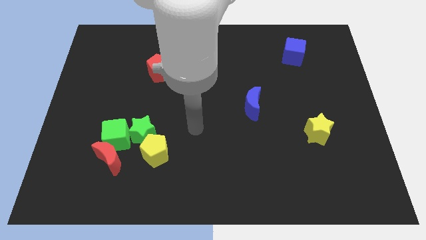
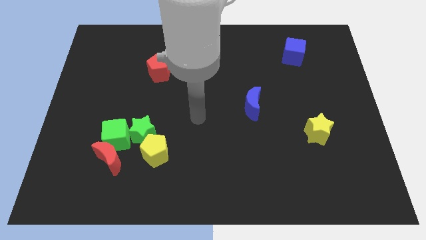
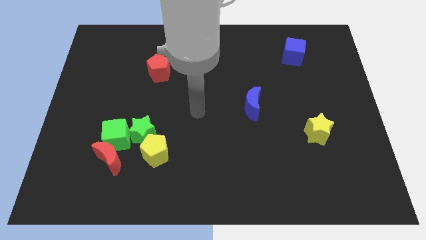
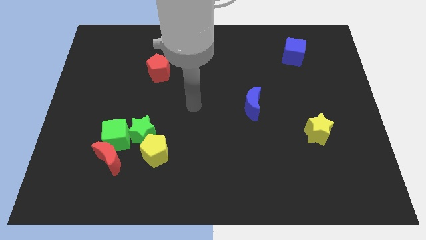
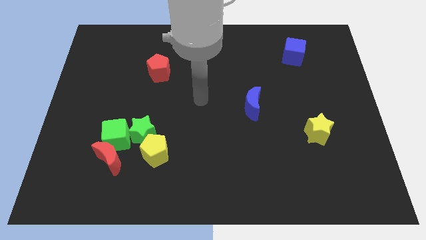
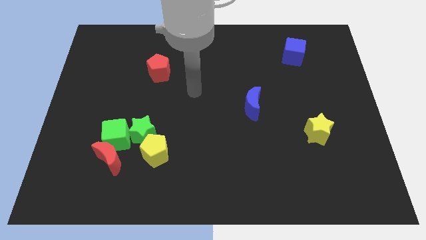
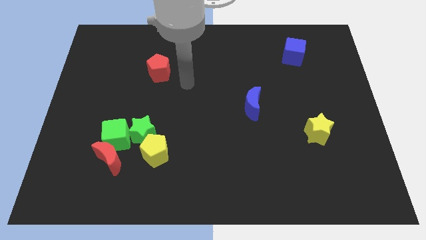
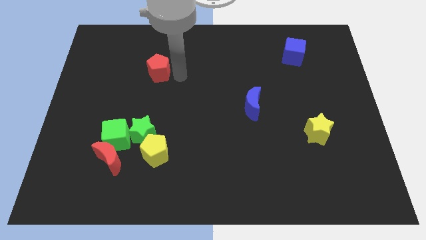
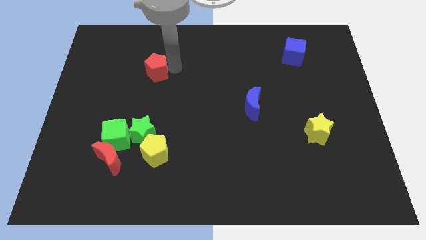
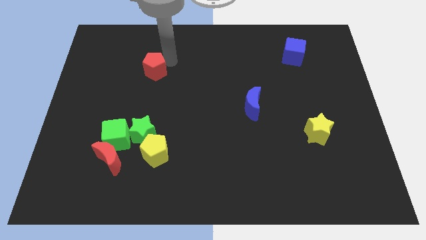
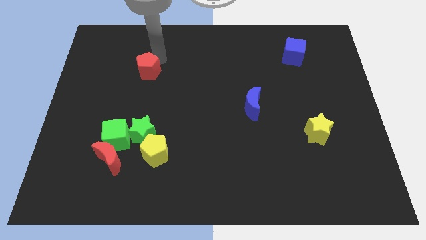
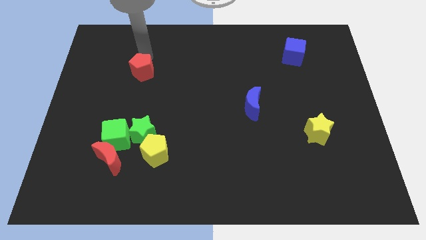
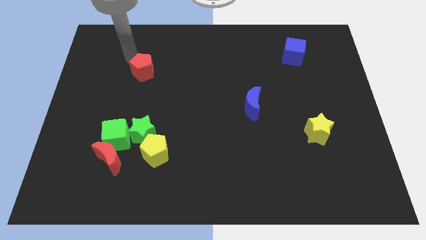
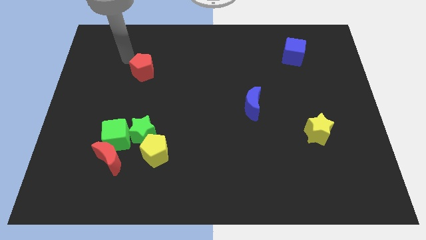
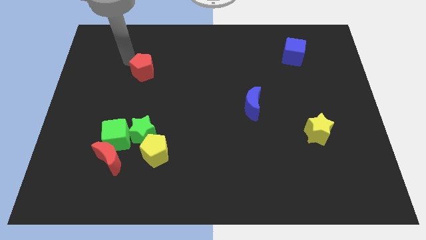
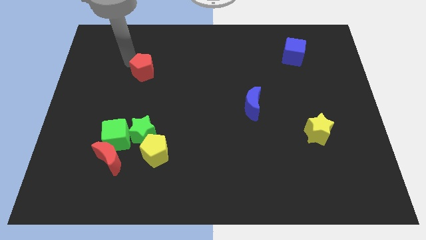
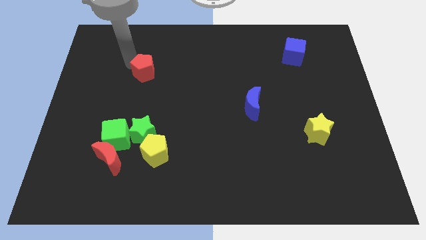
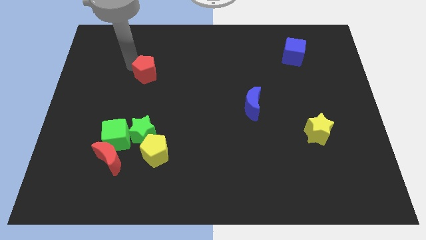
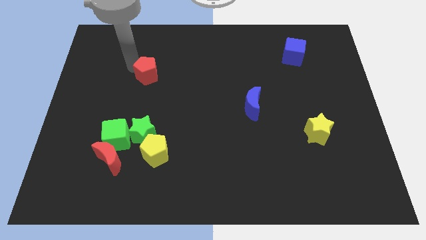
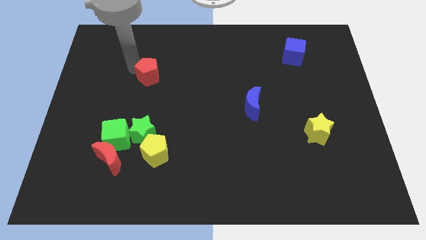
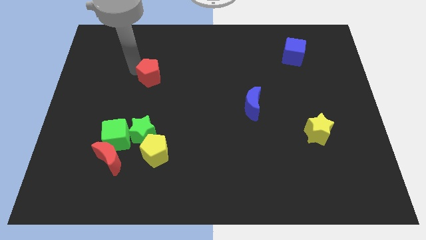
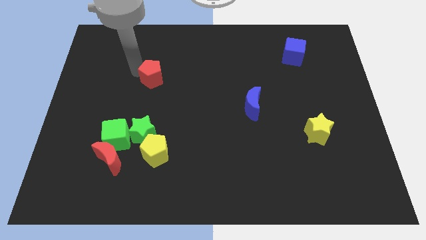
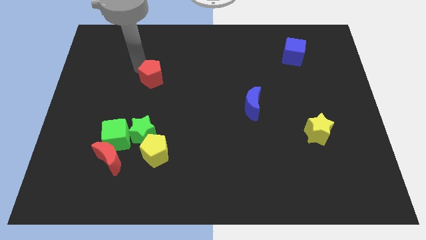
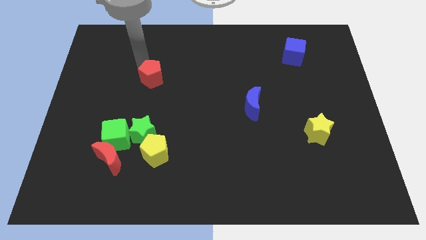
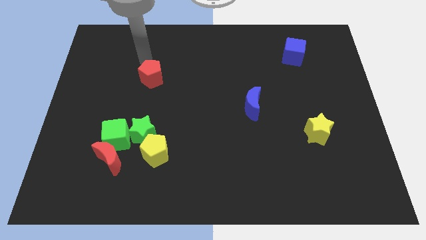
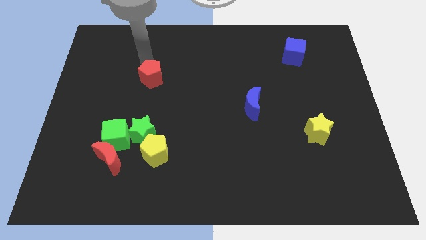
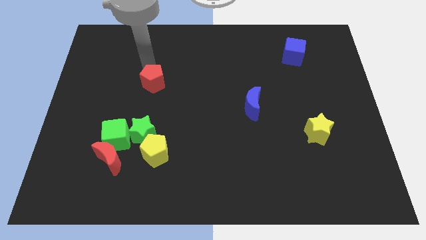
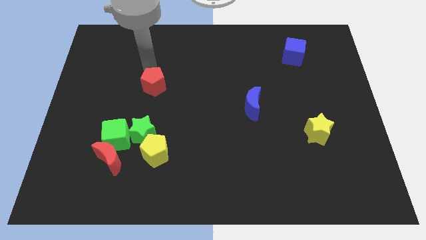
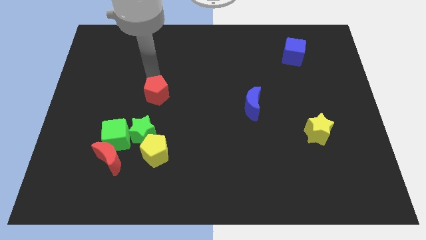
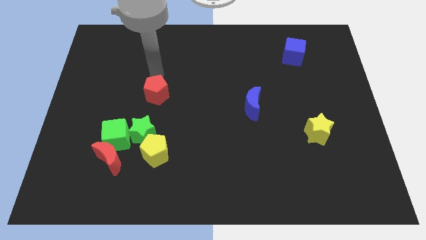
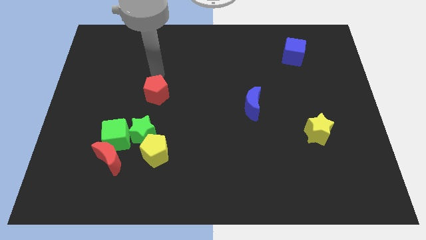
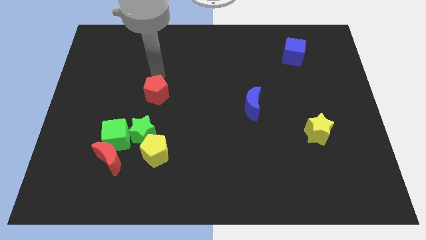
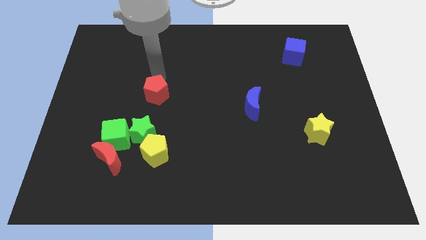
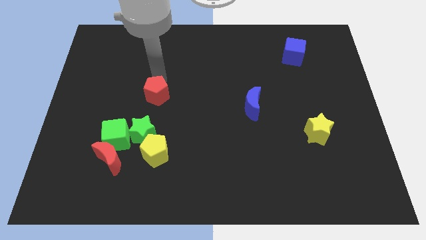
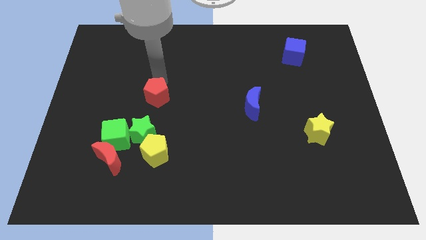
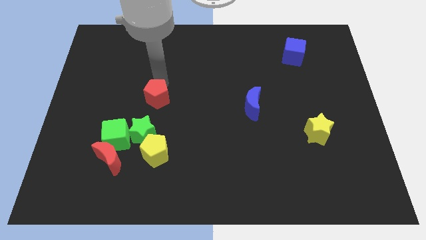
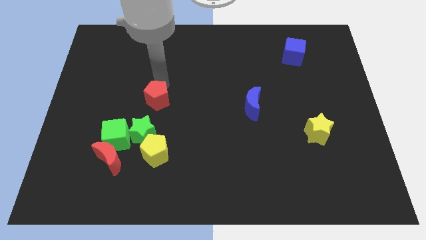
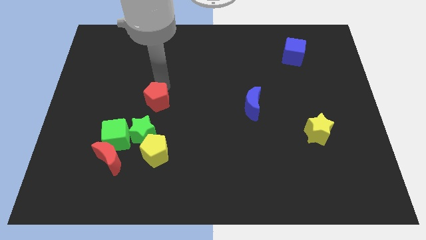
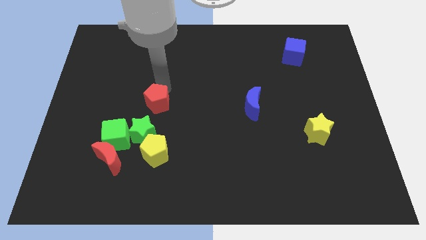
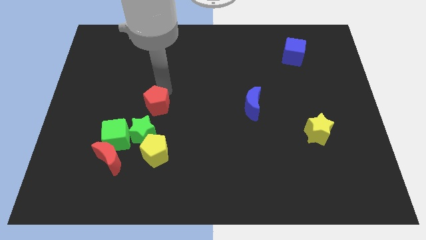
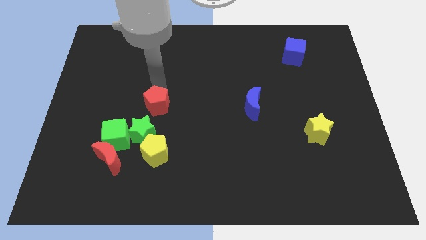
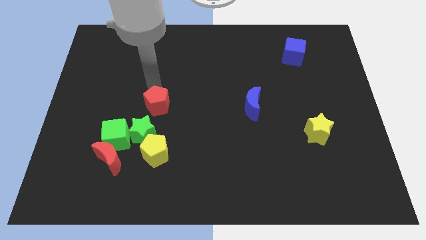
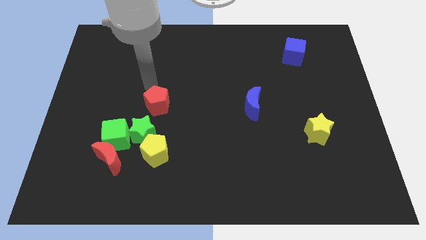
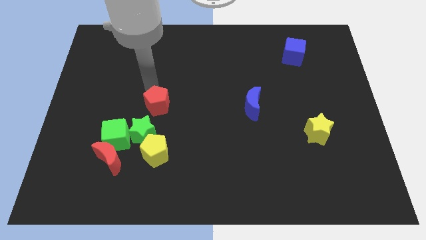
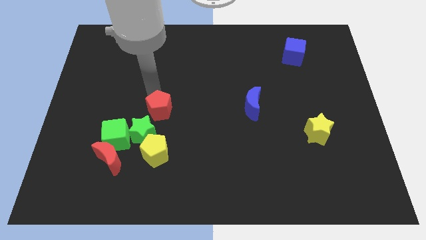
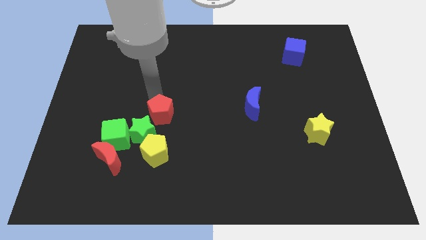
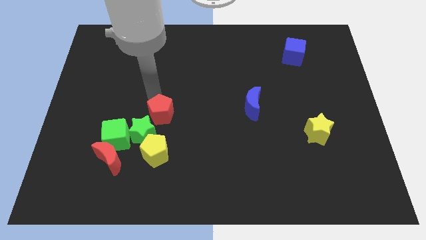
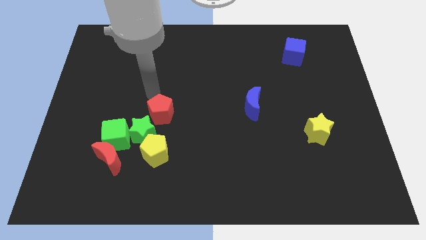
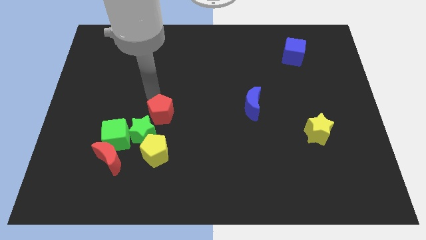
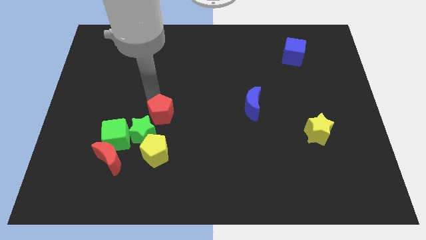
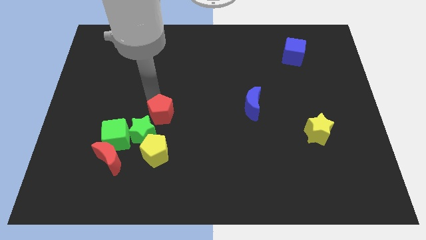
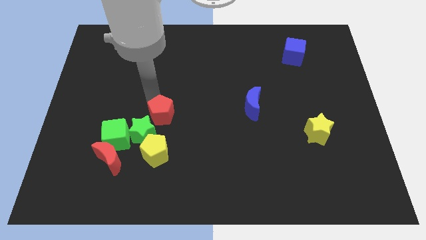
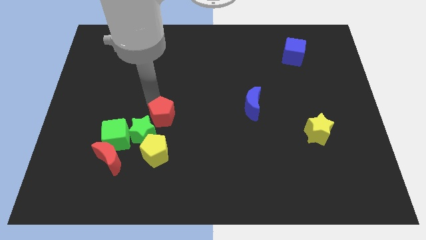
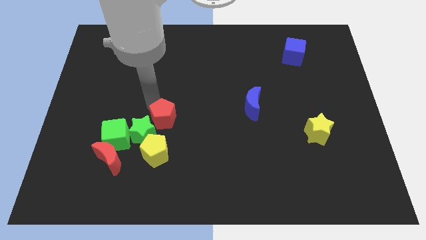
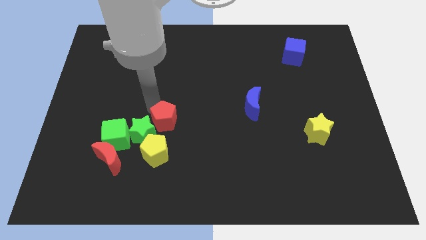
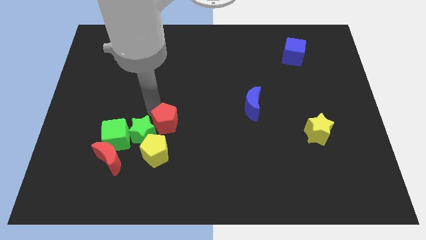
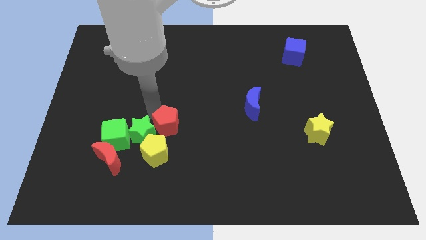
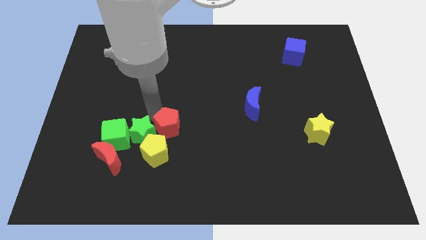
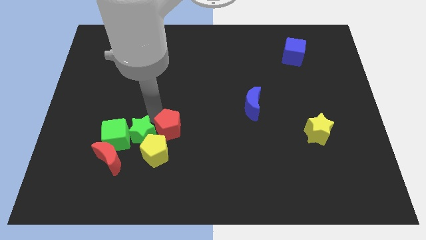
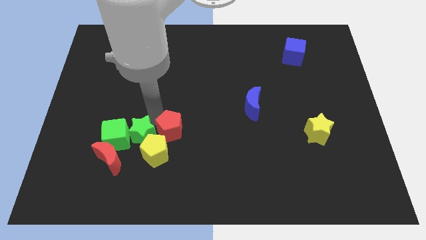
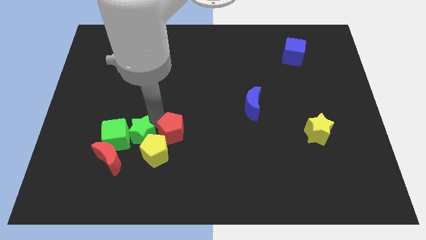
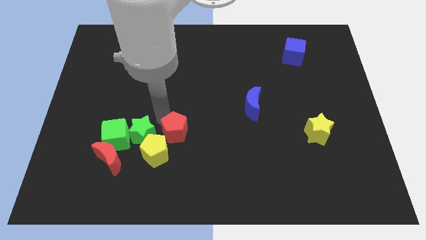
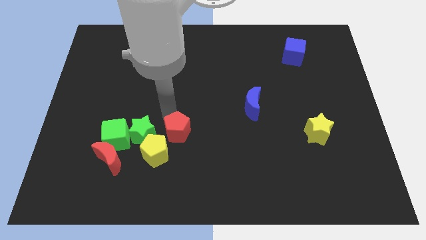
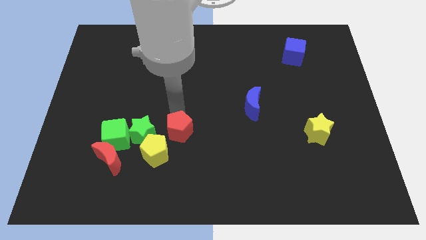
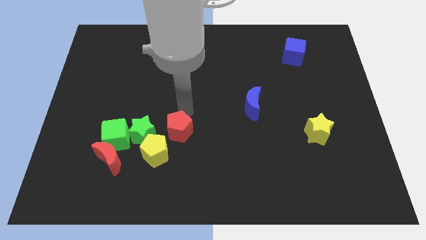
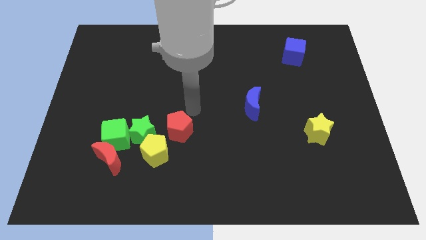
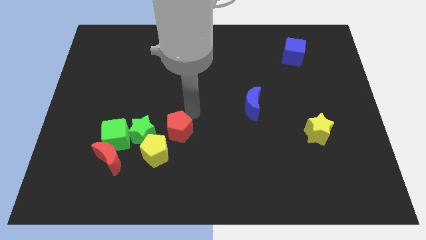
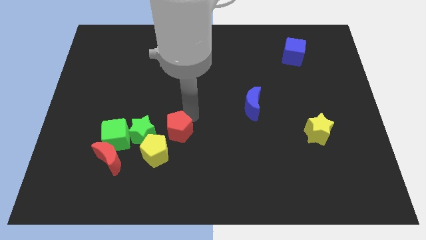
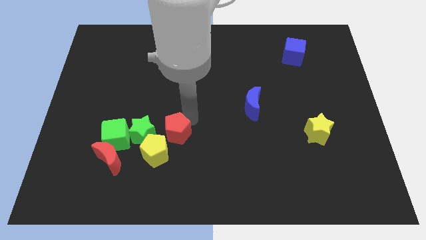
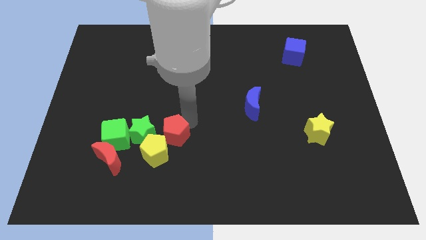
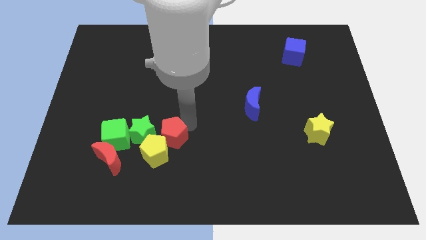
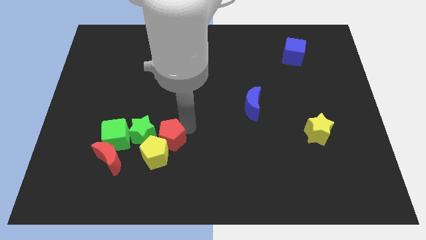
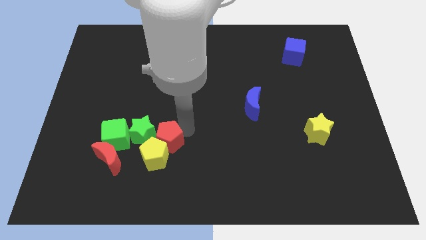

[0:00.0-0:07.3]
move the red pentagon to the right side of the red moon

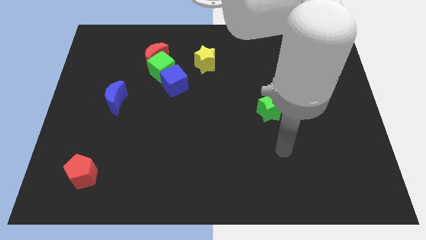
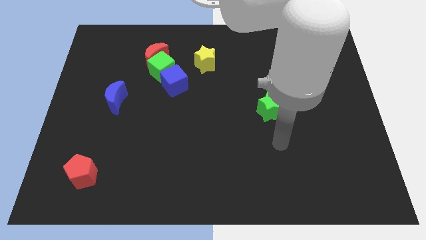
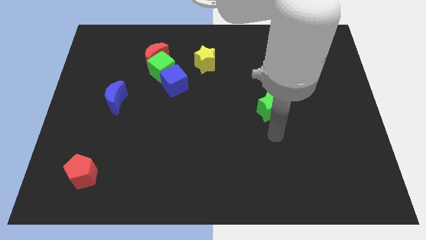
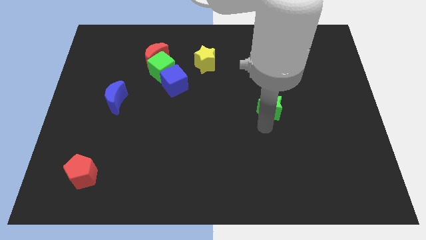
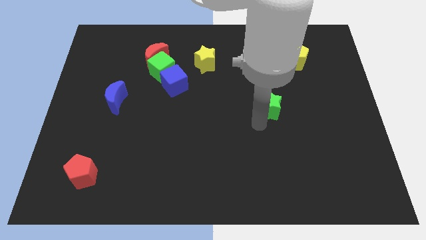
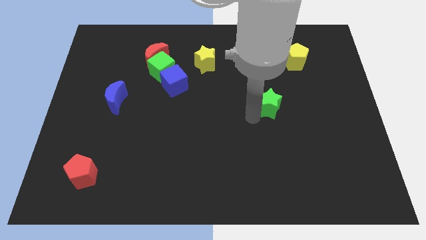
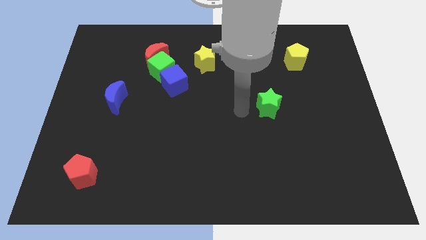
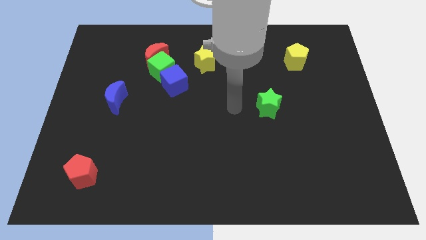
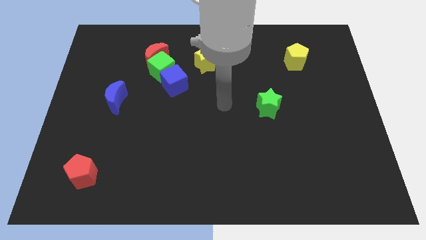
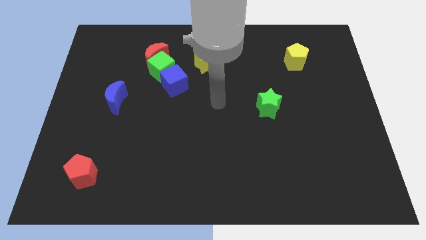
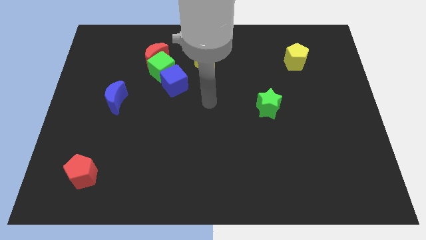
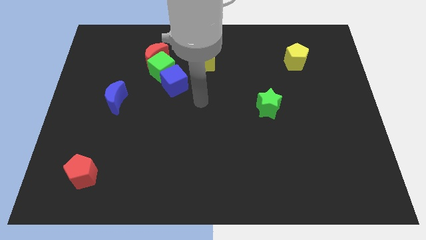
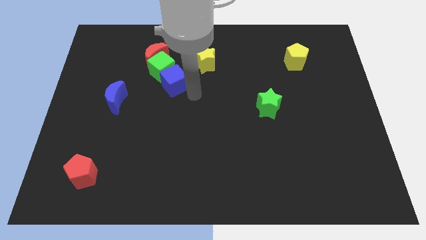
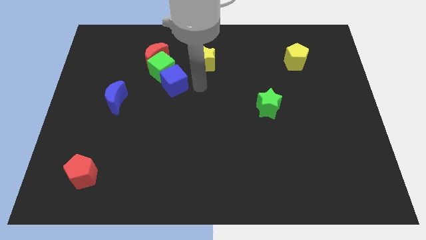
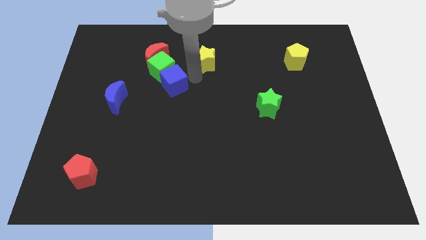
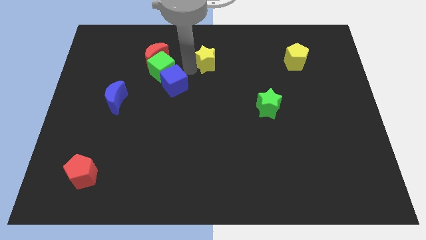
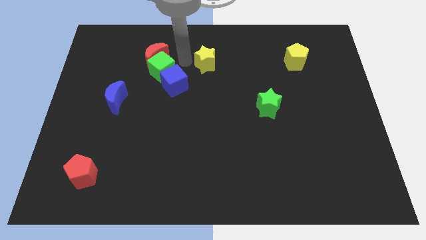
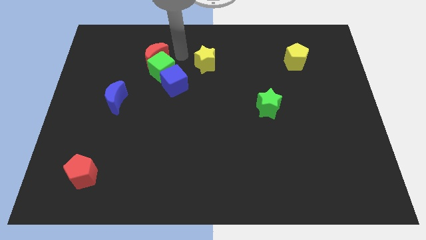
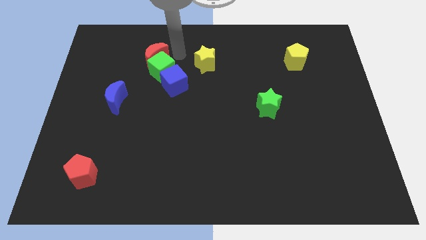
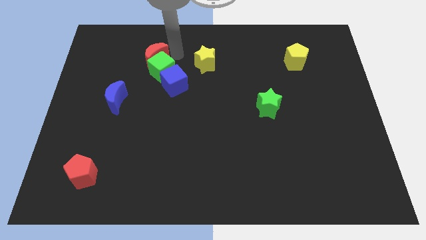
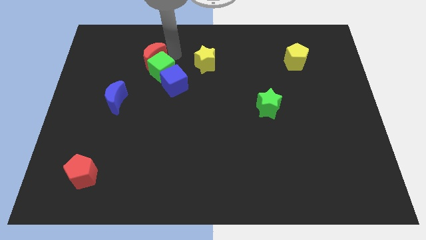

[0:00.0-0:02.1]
move the red moon to the left of the green cube
